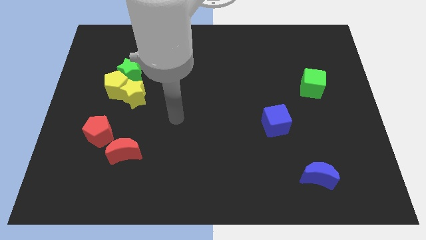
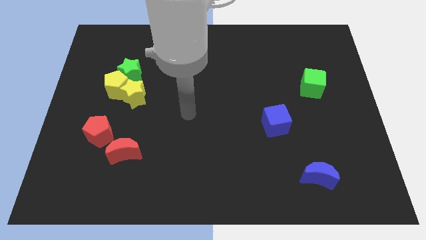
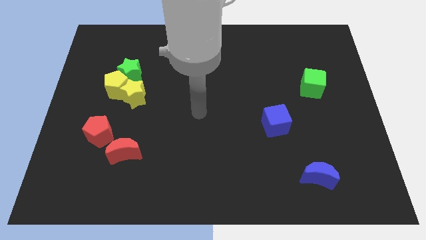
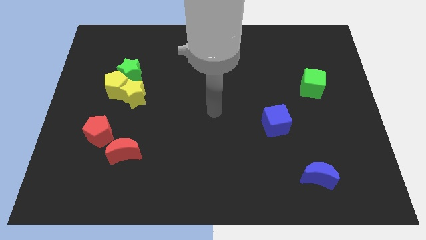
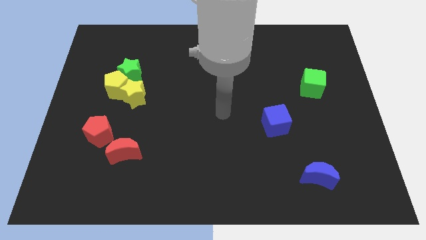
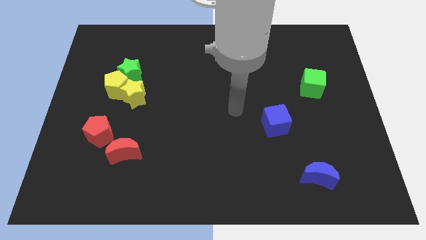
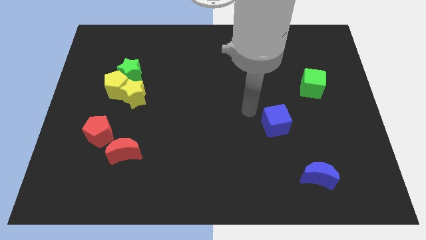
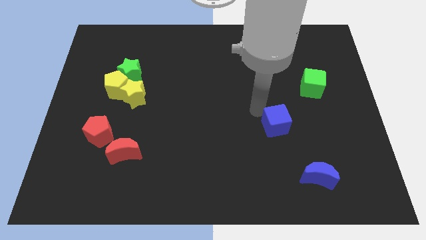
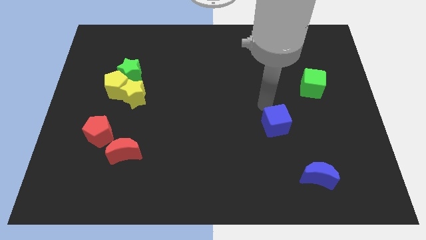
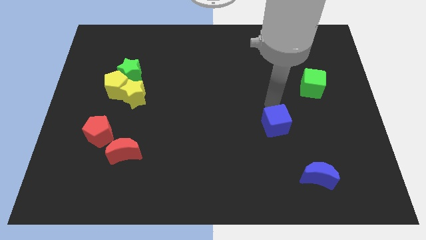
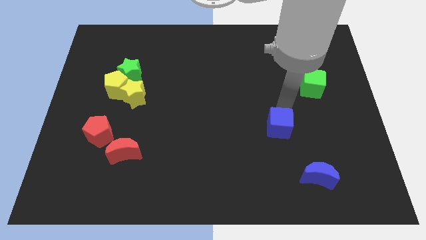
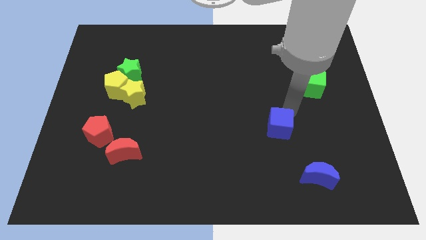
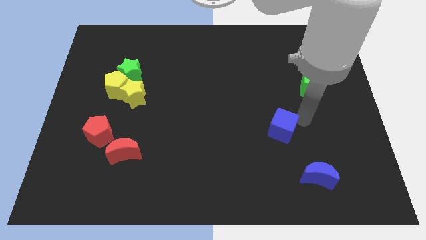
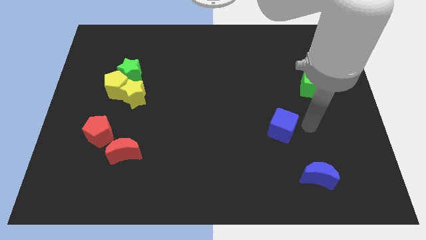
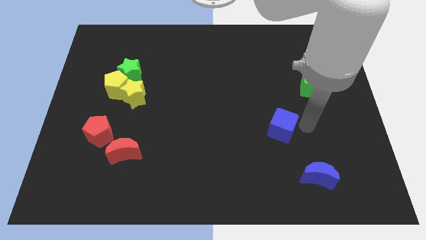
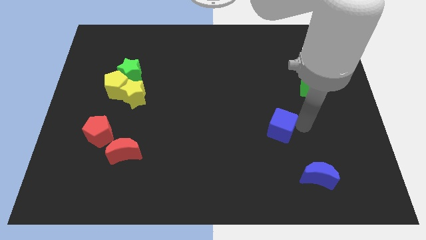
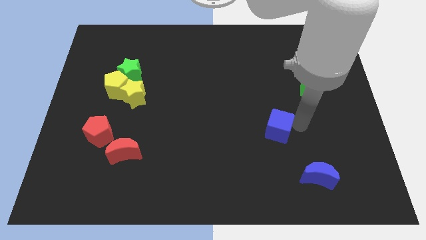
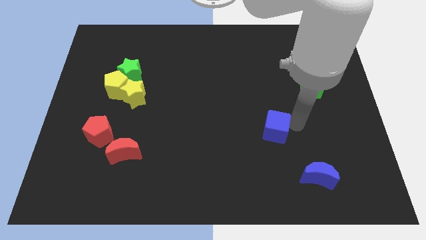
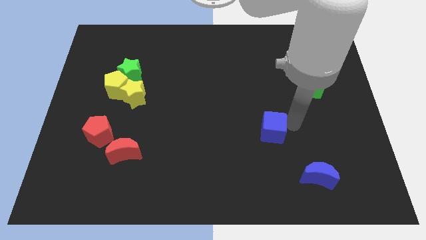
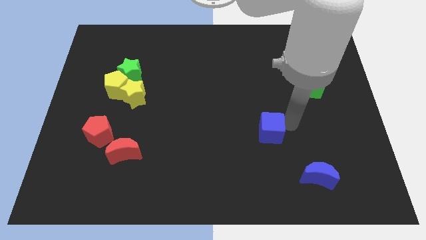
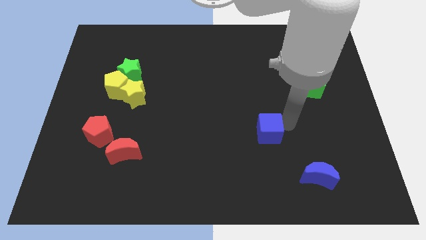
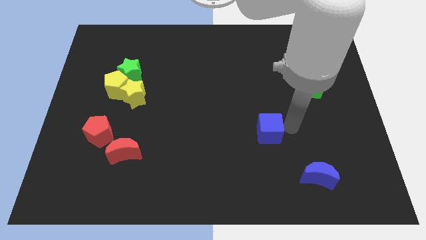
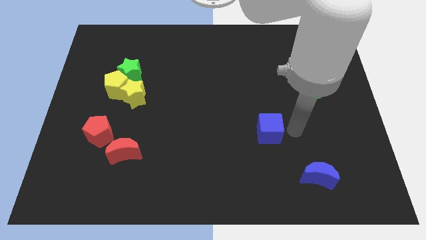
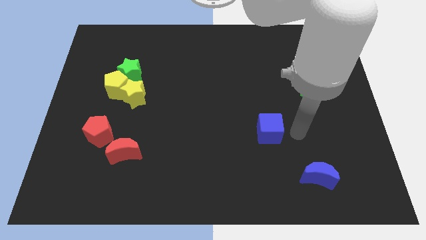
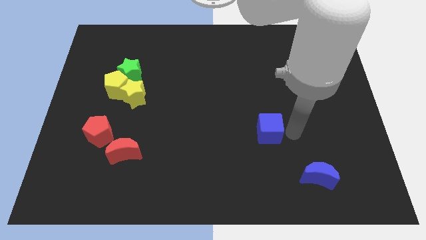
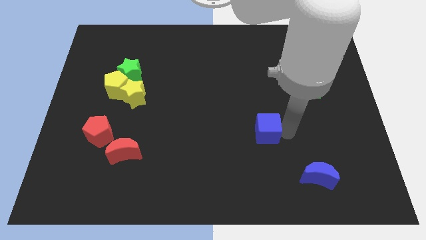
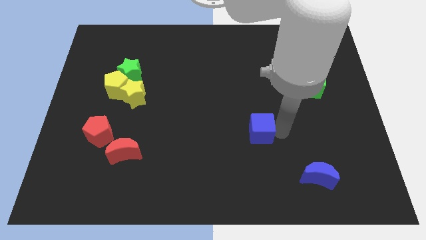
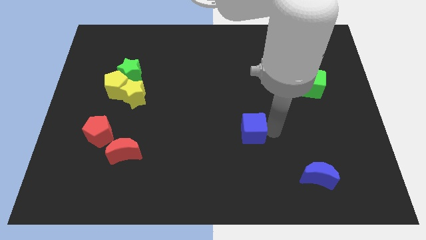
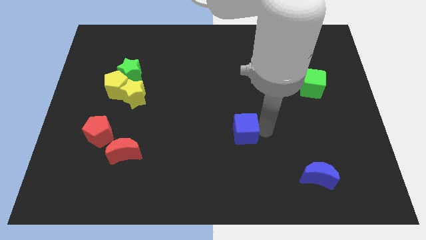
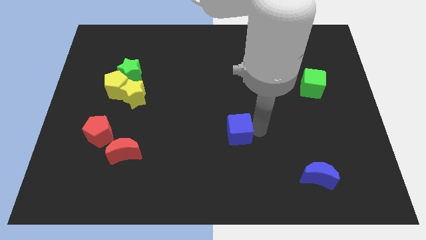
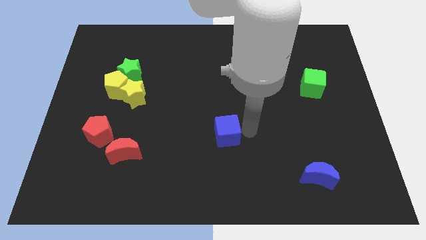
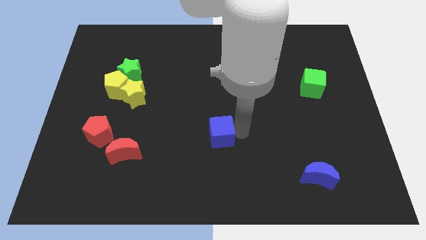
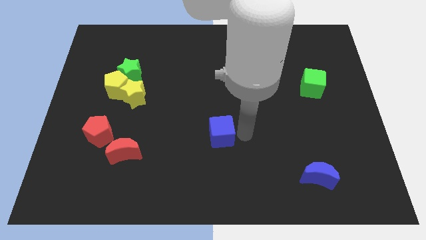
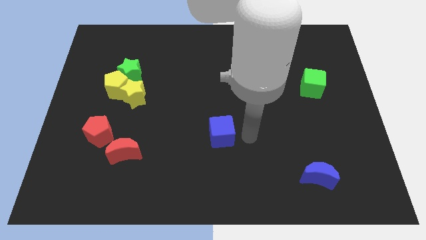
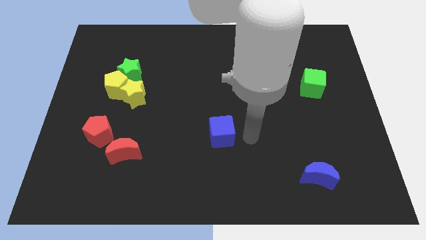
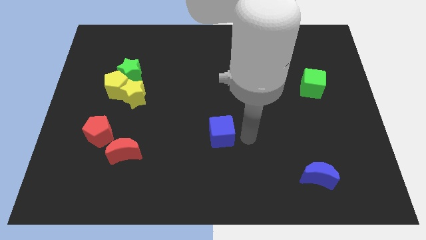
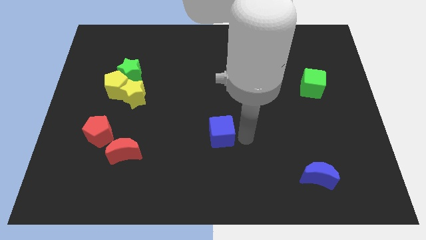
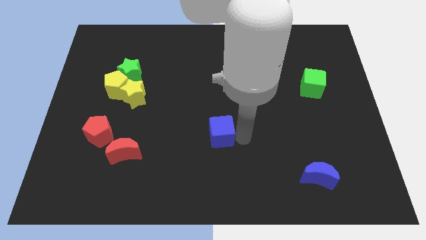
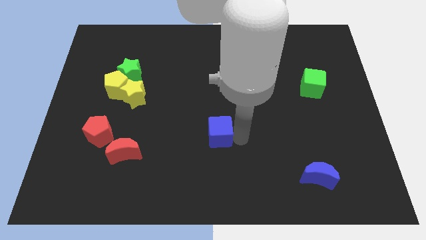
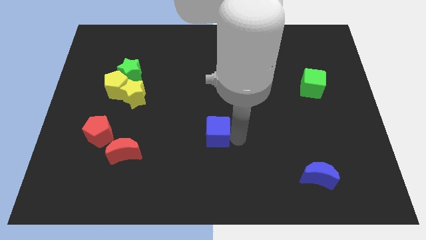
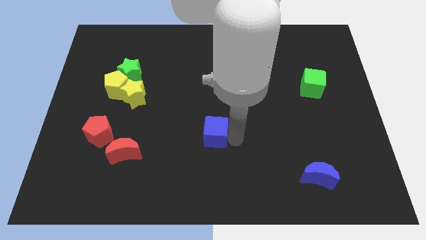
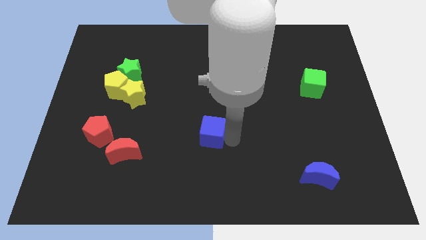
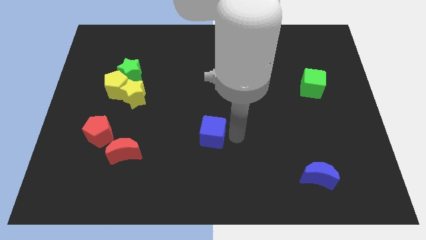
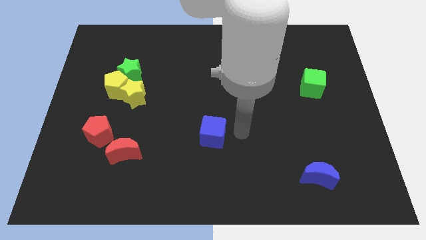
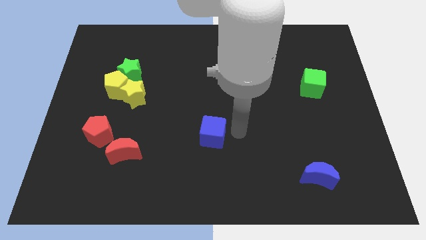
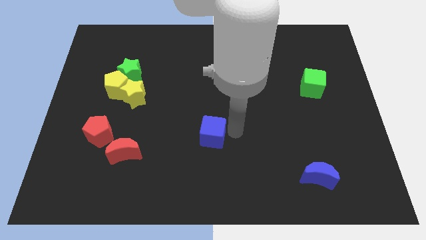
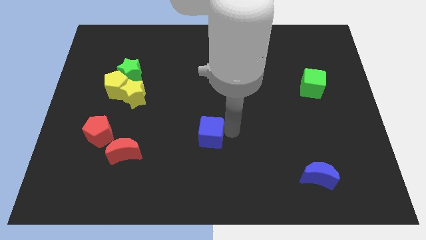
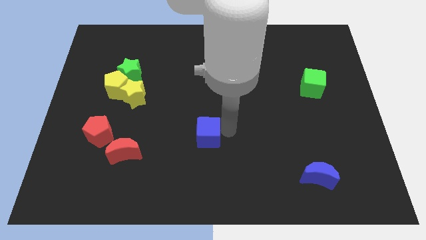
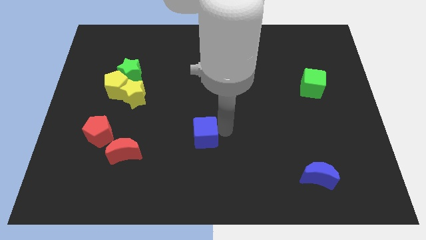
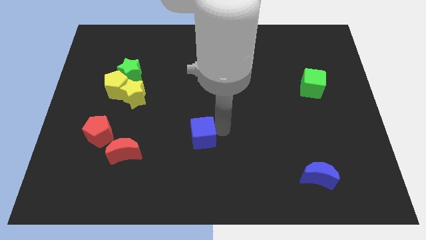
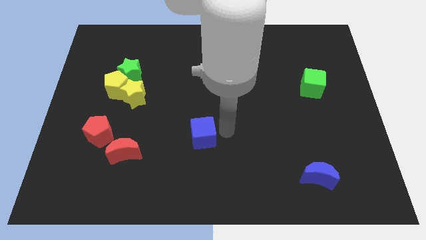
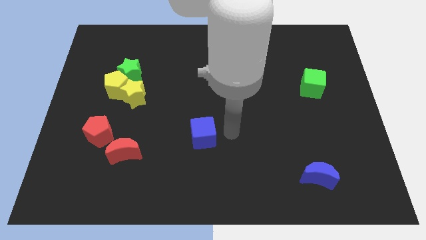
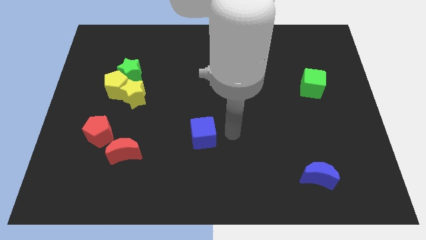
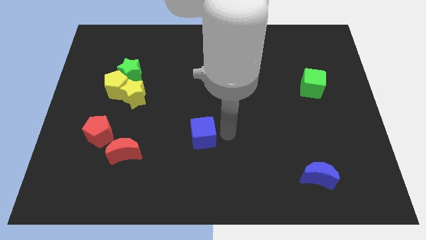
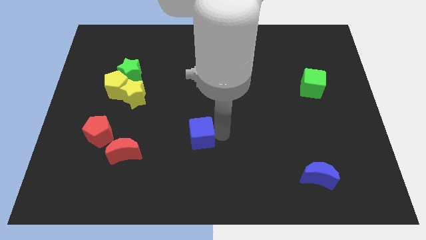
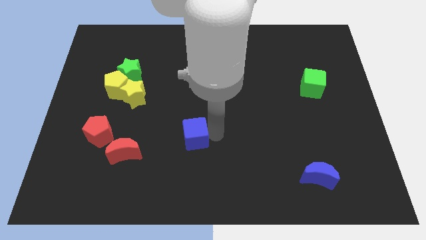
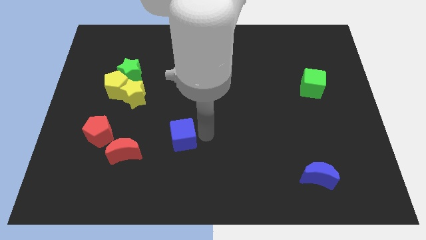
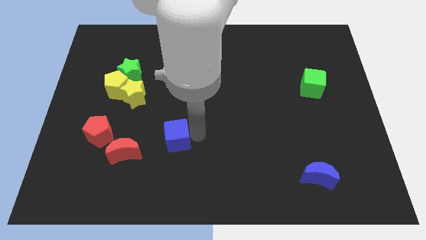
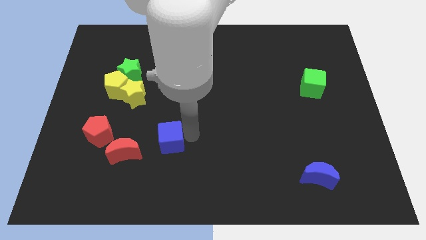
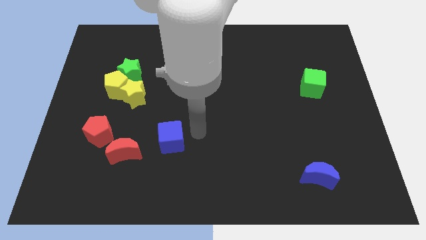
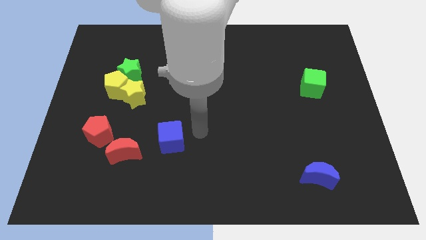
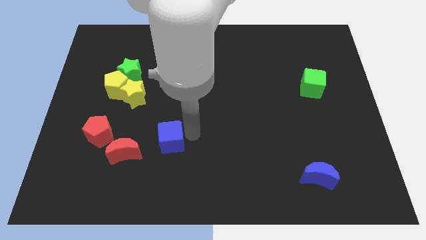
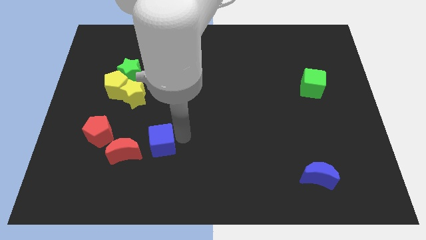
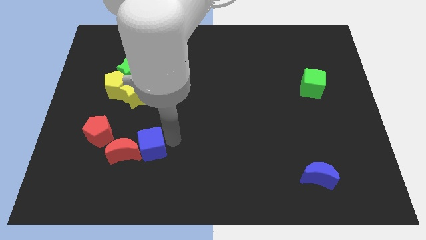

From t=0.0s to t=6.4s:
put the blue cube towards the red moon

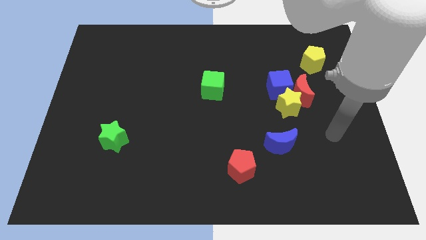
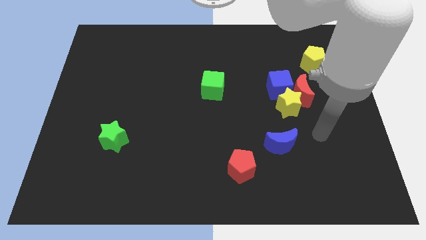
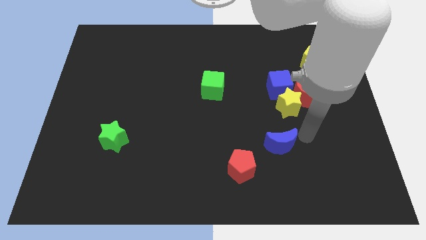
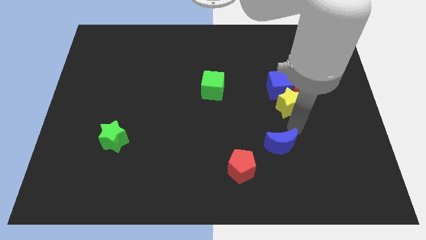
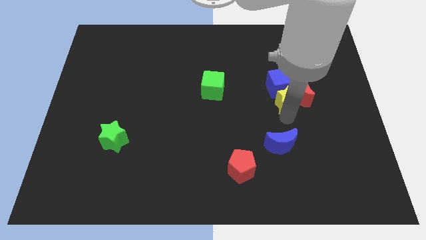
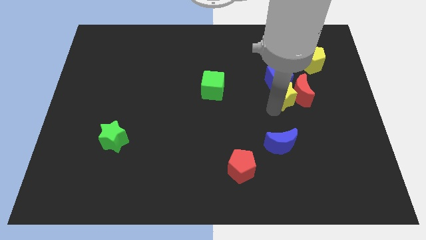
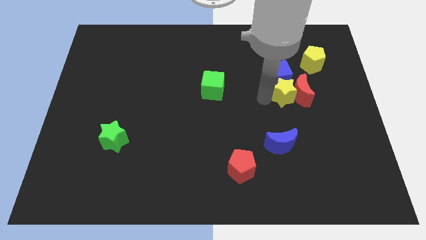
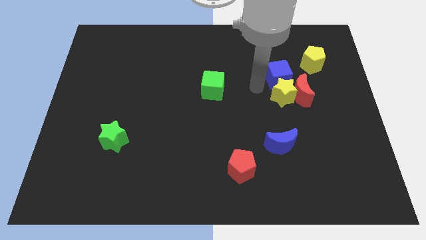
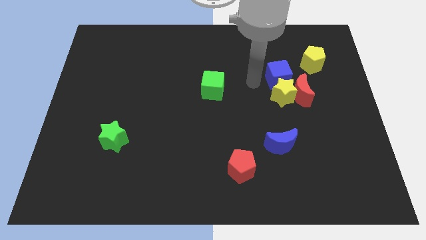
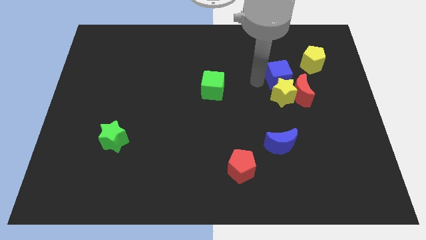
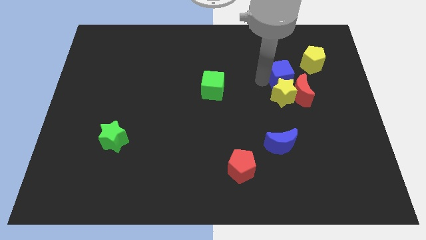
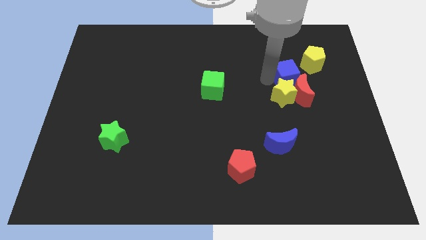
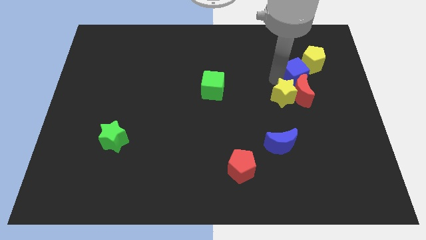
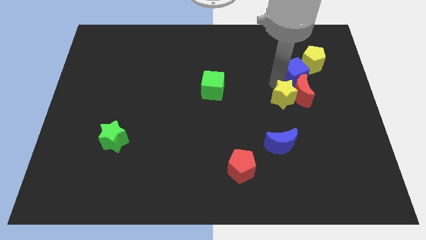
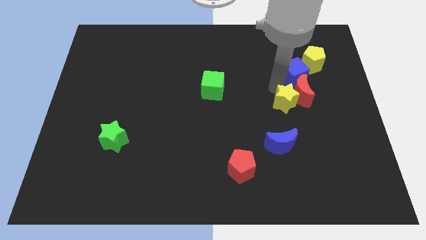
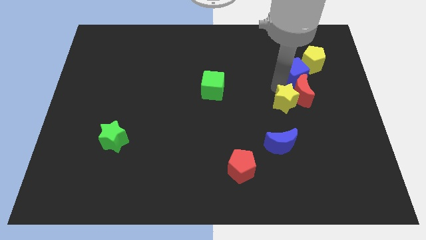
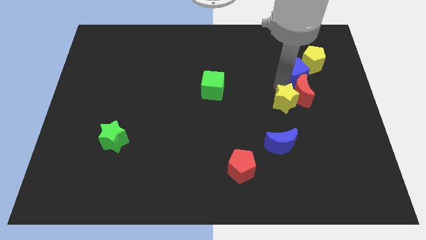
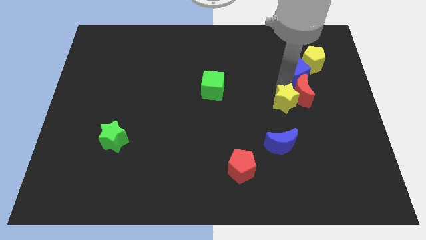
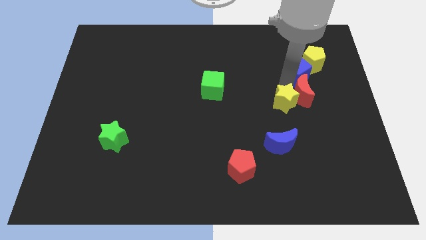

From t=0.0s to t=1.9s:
slide the blue cube next to the yellow pentagon
